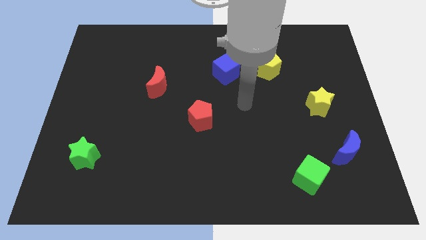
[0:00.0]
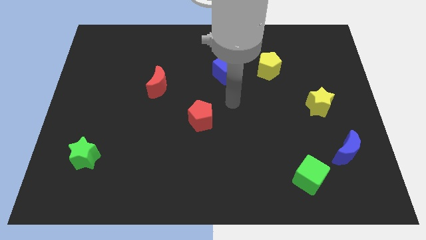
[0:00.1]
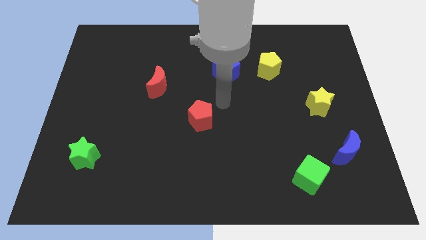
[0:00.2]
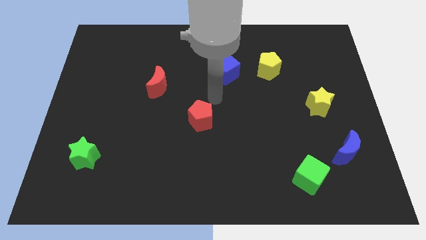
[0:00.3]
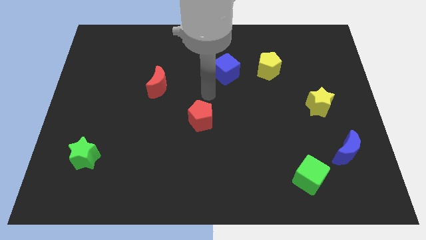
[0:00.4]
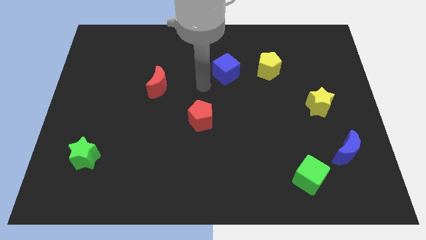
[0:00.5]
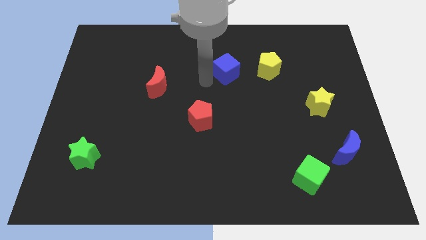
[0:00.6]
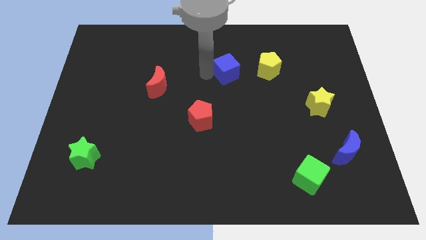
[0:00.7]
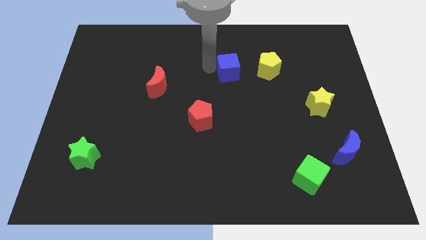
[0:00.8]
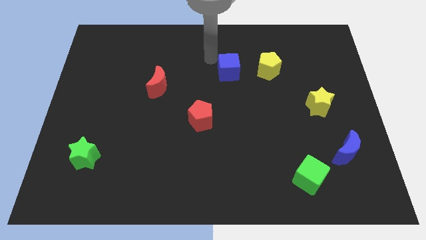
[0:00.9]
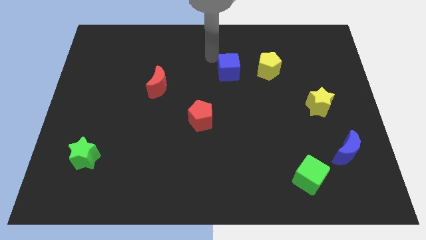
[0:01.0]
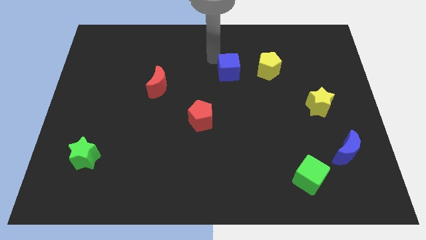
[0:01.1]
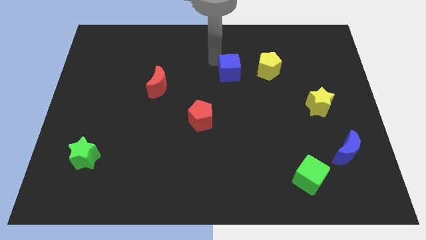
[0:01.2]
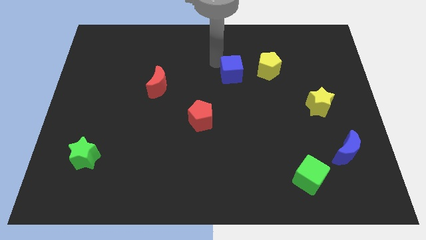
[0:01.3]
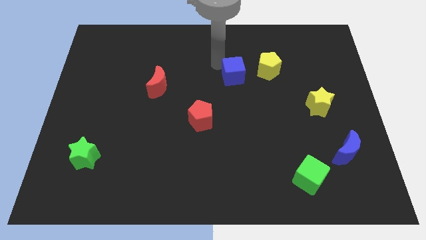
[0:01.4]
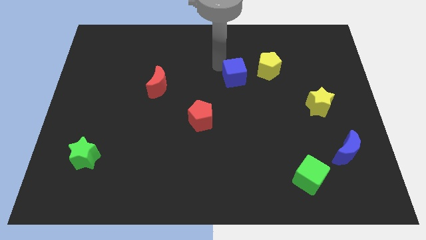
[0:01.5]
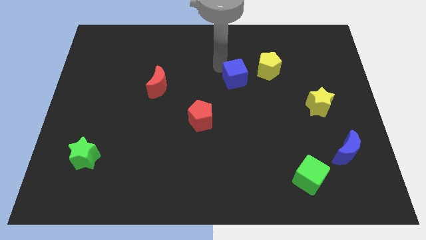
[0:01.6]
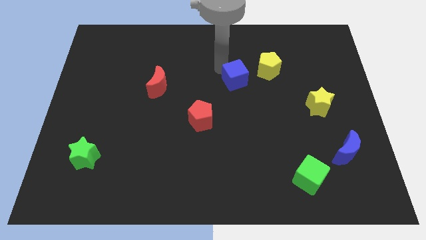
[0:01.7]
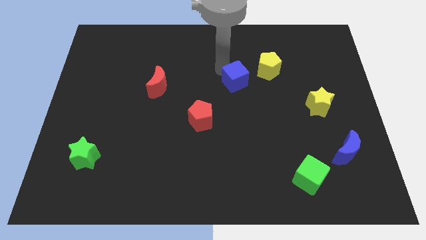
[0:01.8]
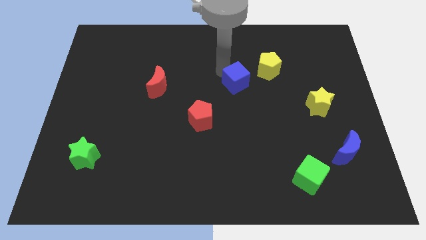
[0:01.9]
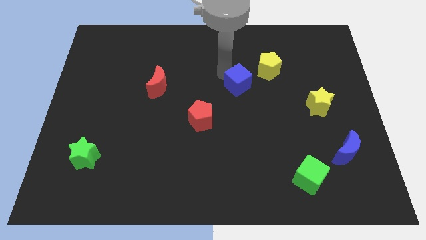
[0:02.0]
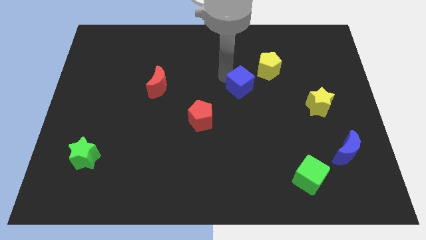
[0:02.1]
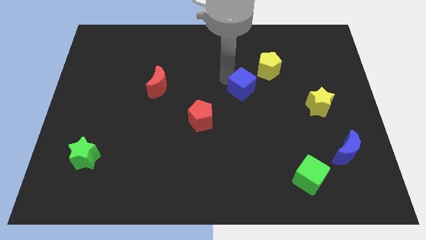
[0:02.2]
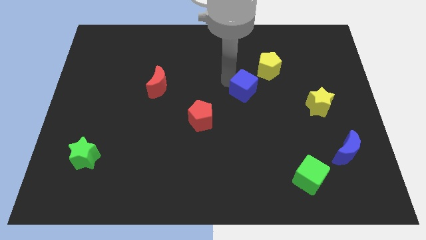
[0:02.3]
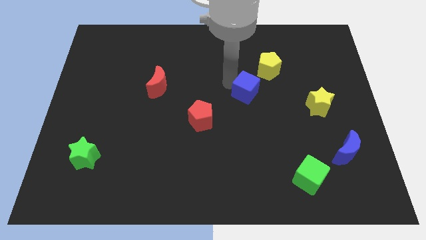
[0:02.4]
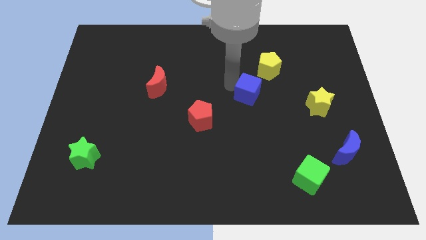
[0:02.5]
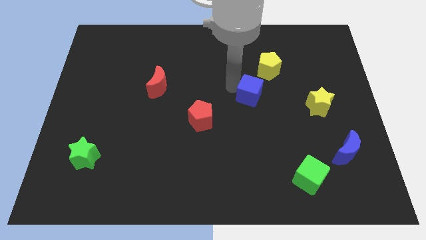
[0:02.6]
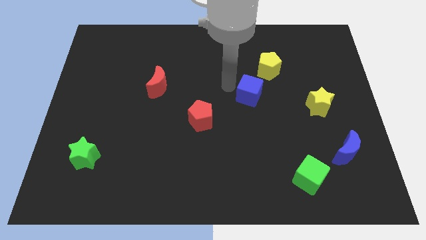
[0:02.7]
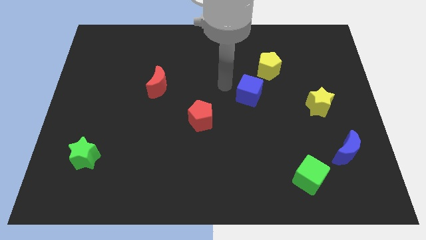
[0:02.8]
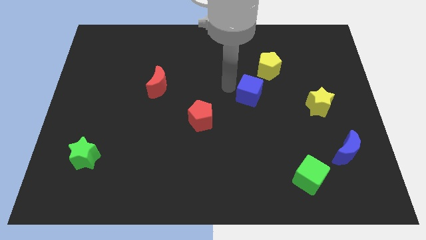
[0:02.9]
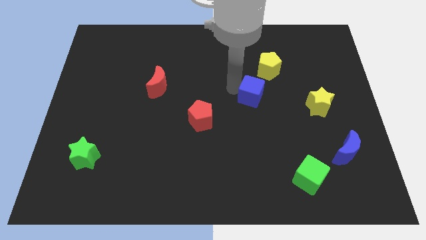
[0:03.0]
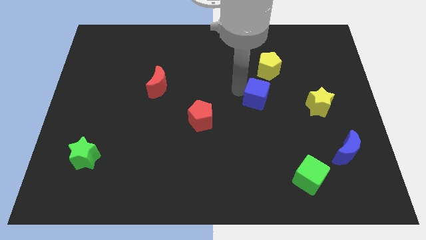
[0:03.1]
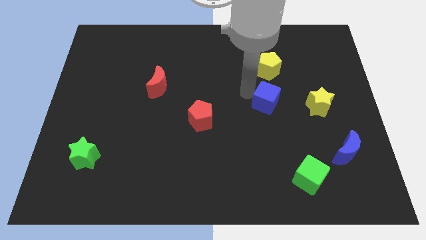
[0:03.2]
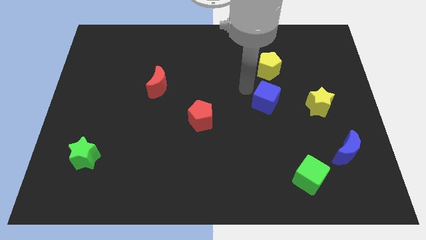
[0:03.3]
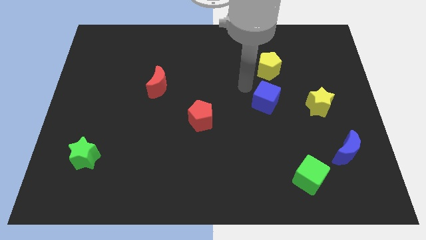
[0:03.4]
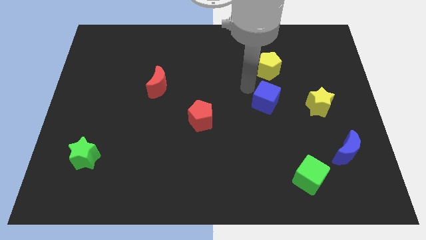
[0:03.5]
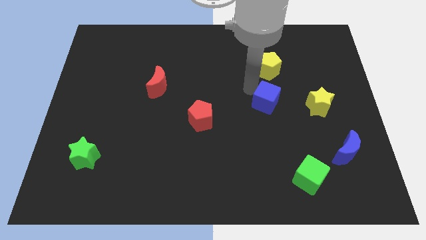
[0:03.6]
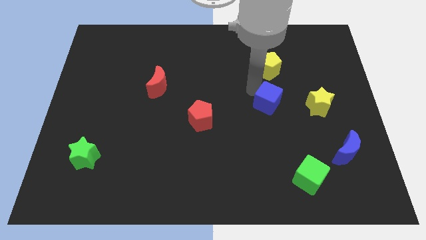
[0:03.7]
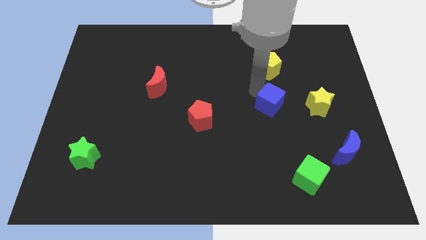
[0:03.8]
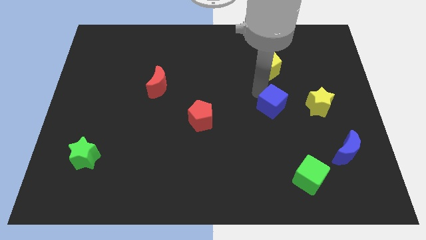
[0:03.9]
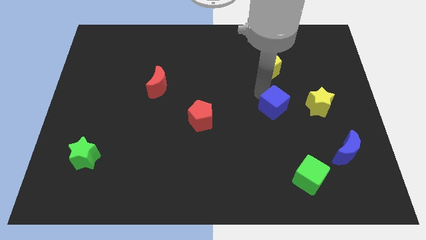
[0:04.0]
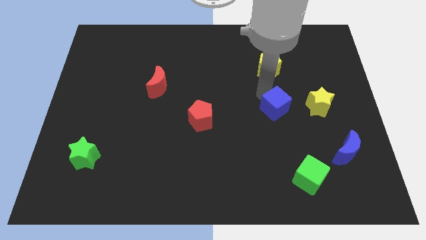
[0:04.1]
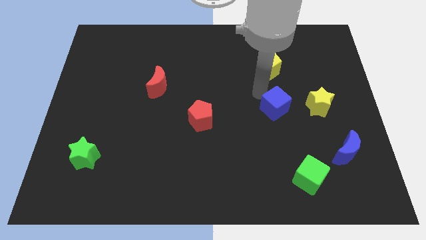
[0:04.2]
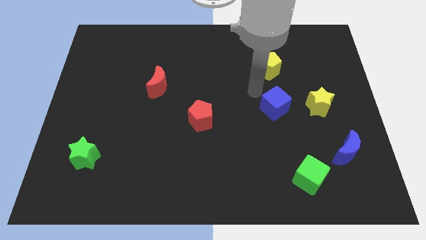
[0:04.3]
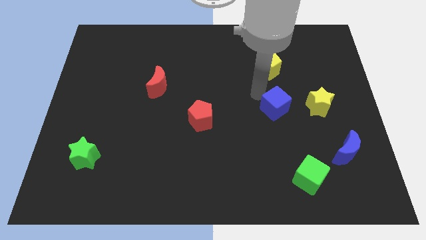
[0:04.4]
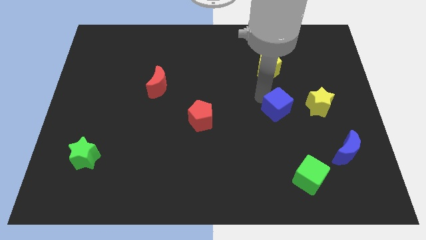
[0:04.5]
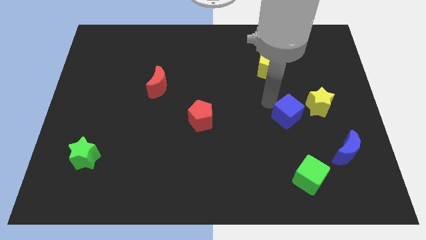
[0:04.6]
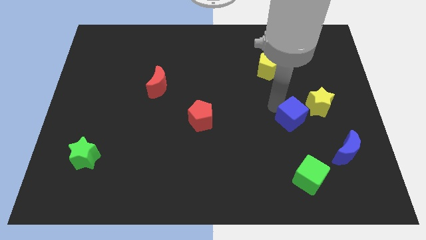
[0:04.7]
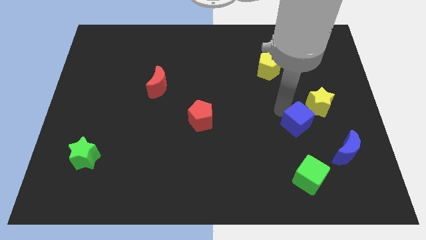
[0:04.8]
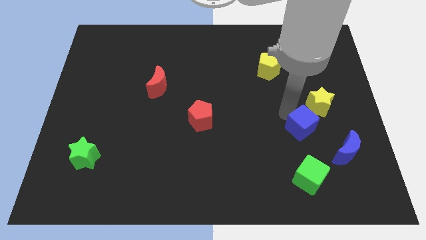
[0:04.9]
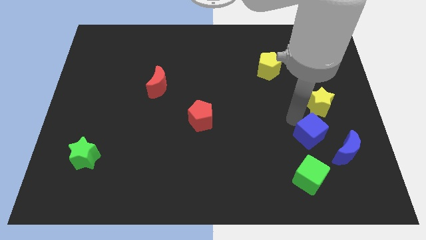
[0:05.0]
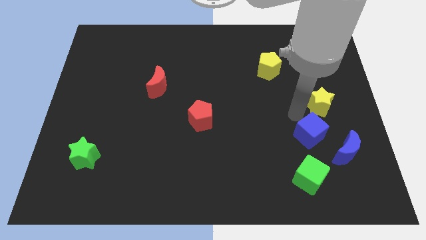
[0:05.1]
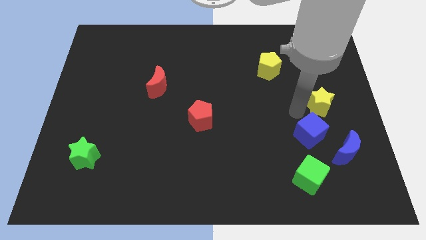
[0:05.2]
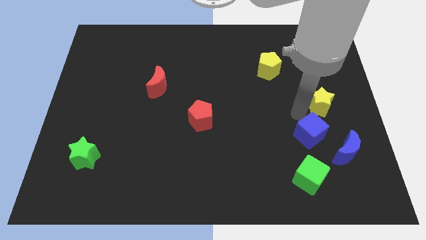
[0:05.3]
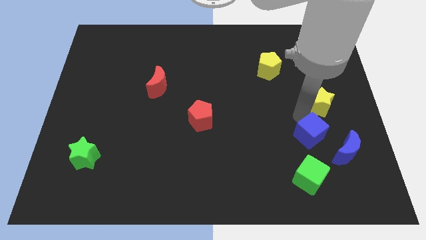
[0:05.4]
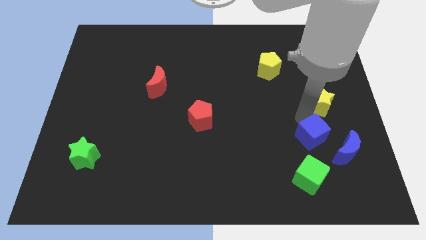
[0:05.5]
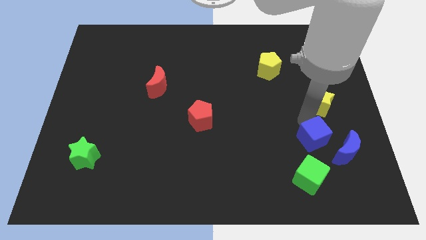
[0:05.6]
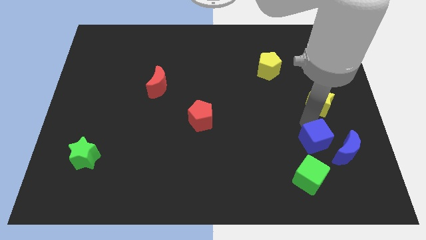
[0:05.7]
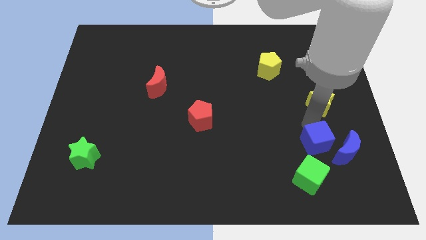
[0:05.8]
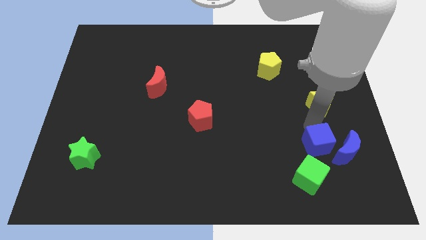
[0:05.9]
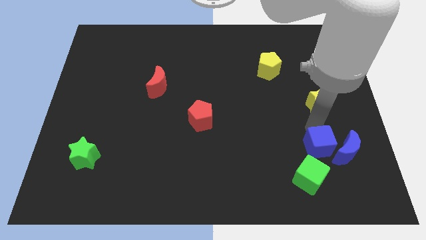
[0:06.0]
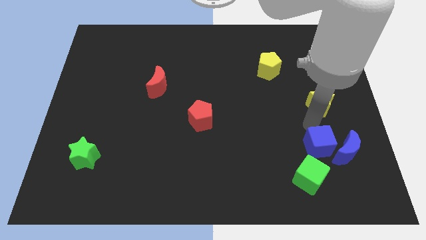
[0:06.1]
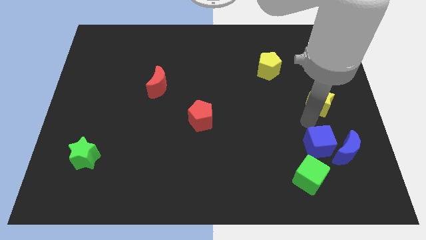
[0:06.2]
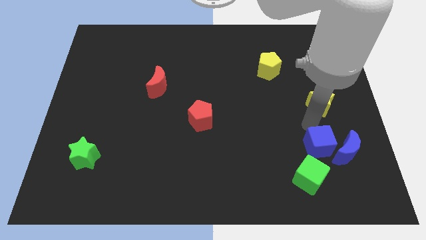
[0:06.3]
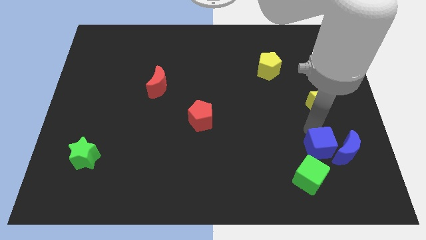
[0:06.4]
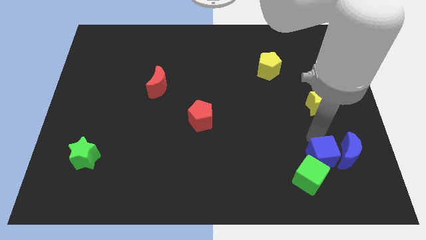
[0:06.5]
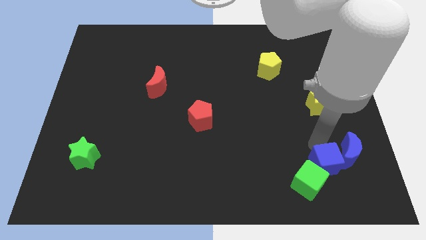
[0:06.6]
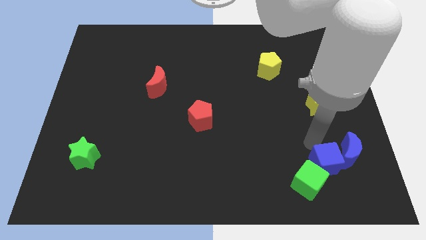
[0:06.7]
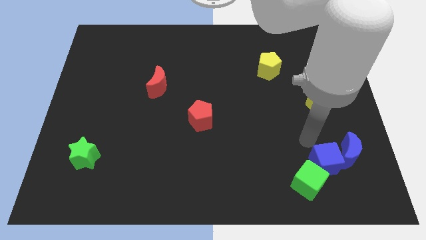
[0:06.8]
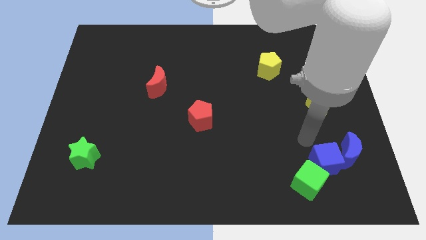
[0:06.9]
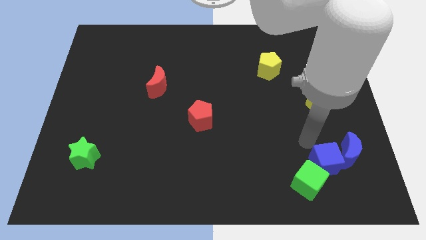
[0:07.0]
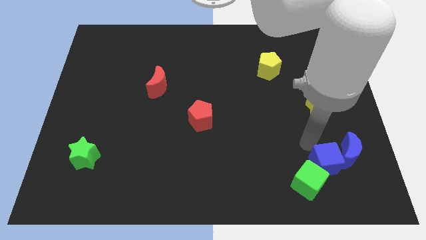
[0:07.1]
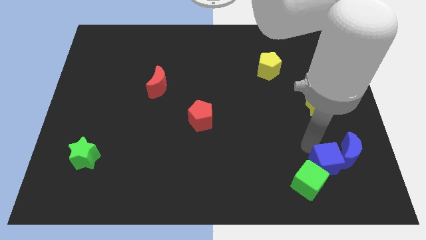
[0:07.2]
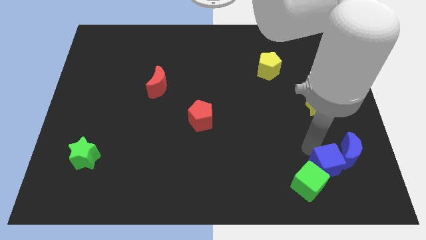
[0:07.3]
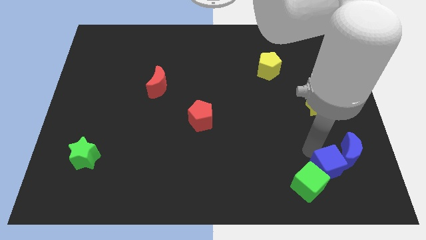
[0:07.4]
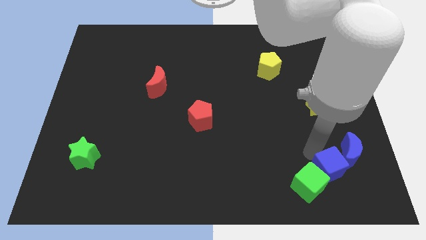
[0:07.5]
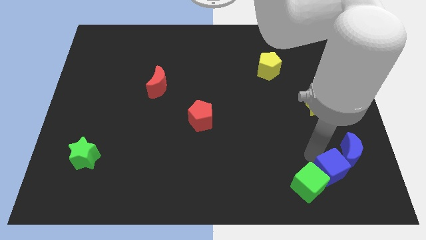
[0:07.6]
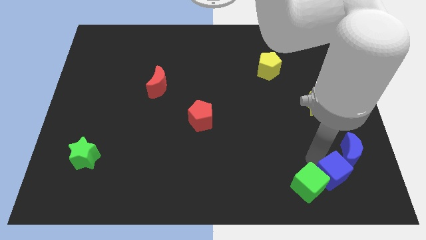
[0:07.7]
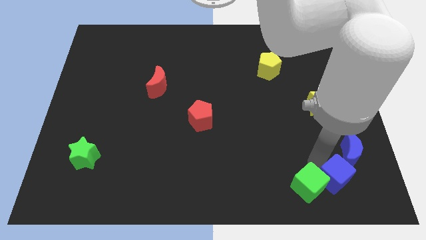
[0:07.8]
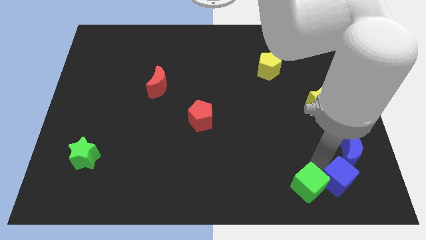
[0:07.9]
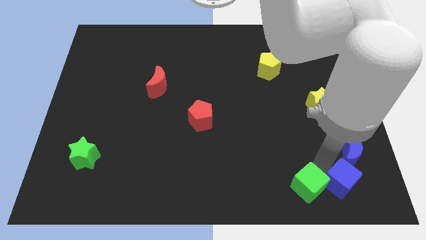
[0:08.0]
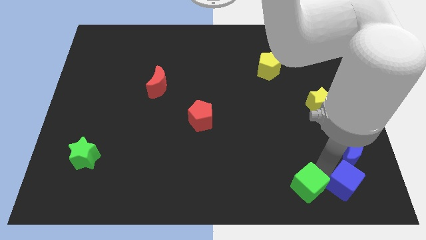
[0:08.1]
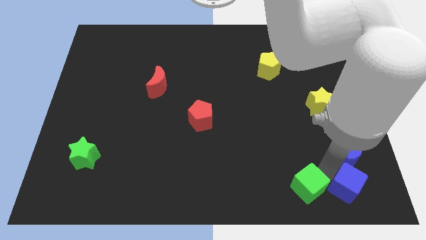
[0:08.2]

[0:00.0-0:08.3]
move the blue cube to the bottom right corner
